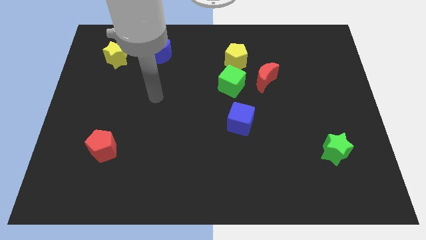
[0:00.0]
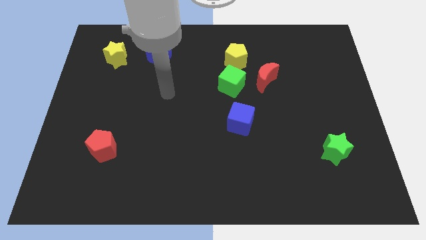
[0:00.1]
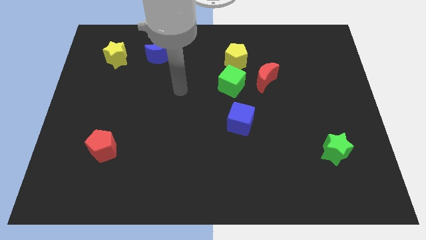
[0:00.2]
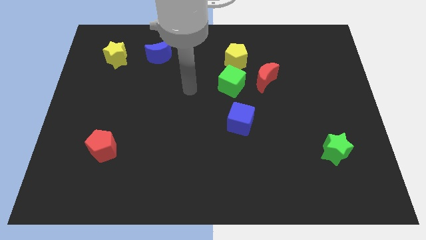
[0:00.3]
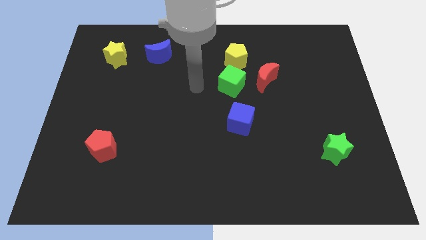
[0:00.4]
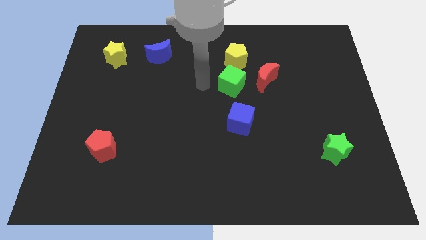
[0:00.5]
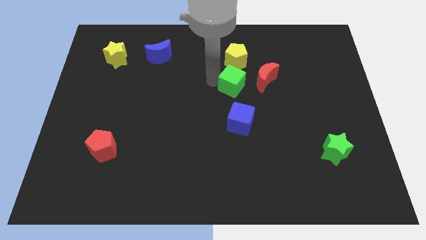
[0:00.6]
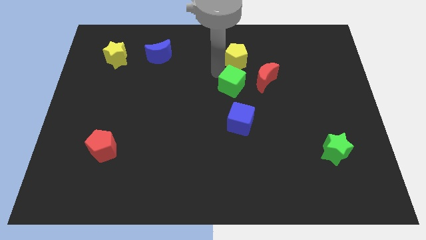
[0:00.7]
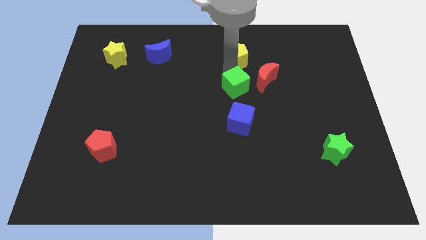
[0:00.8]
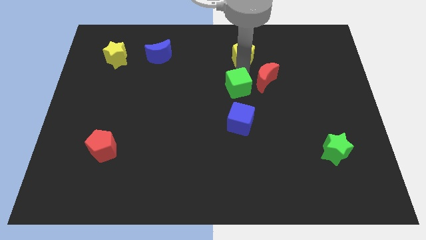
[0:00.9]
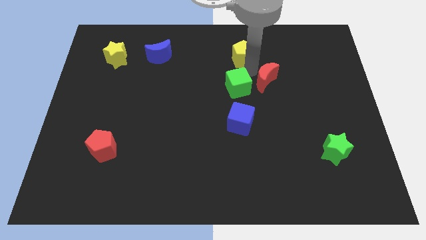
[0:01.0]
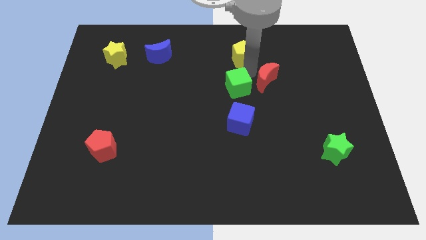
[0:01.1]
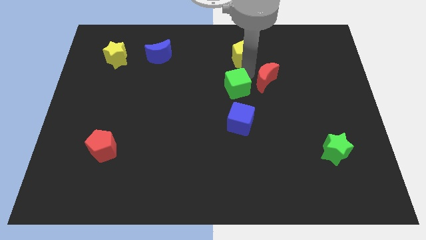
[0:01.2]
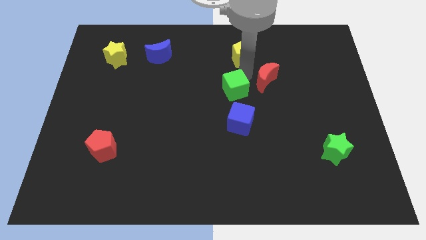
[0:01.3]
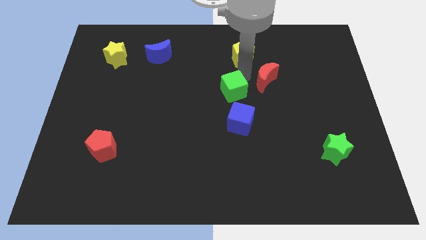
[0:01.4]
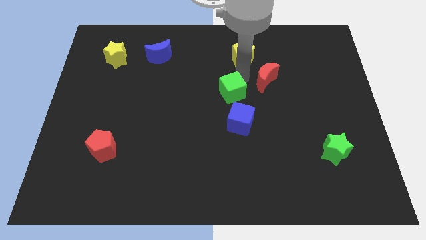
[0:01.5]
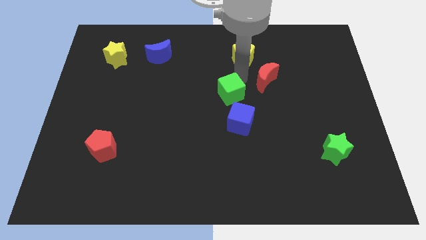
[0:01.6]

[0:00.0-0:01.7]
separate the green cube from the red moon and yellow pentagon

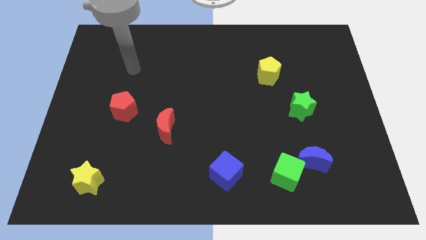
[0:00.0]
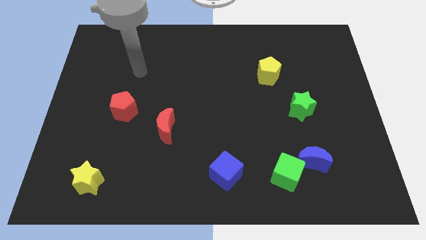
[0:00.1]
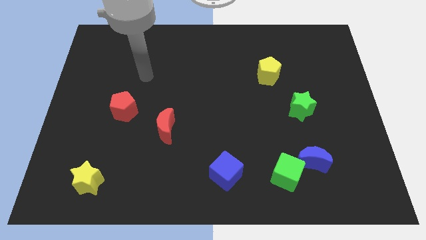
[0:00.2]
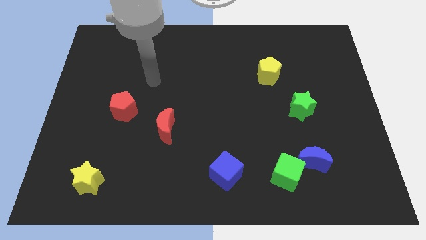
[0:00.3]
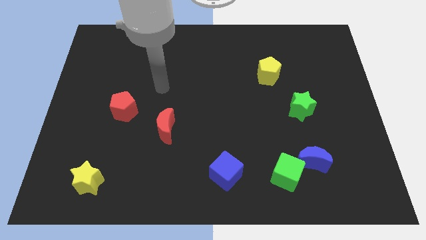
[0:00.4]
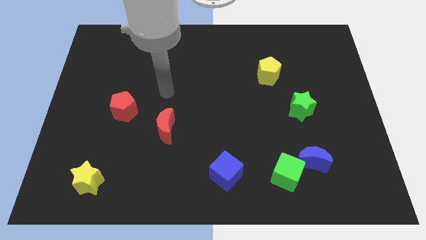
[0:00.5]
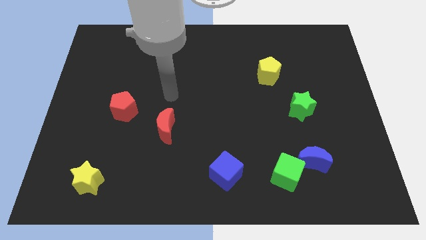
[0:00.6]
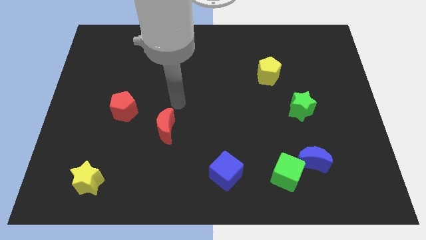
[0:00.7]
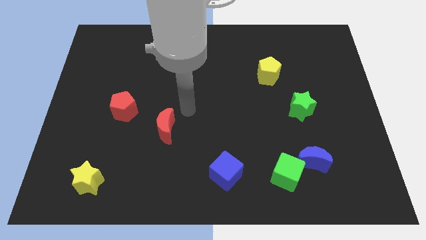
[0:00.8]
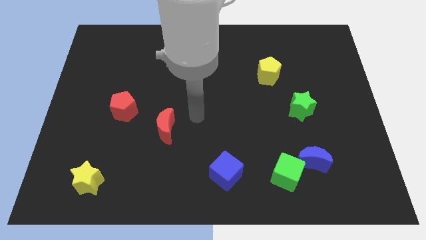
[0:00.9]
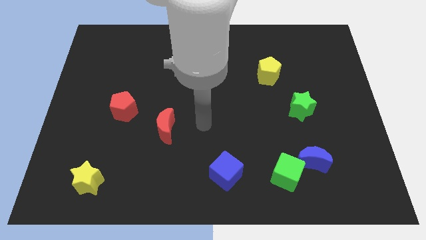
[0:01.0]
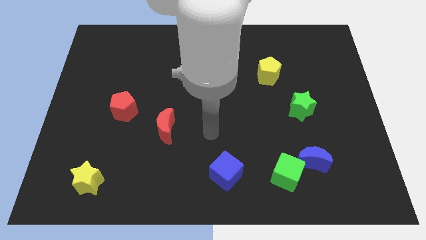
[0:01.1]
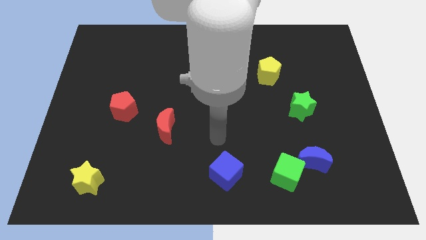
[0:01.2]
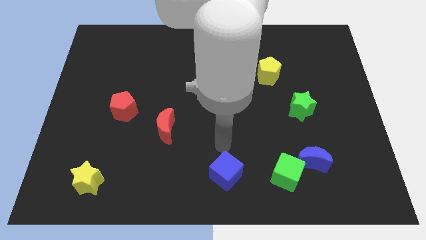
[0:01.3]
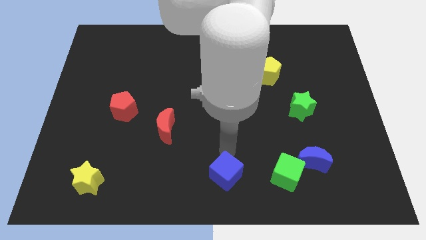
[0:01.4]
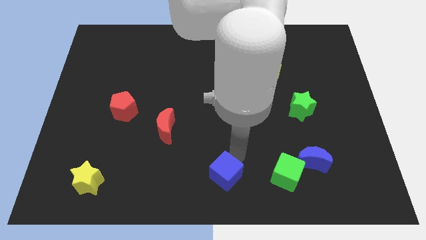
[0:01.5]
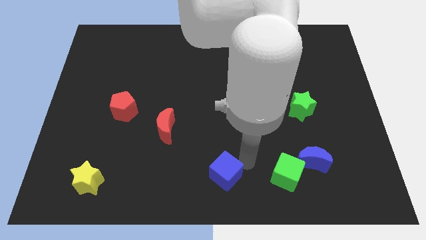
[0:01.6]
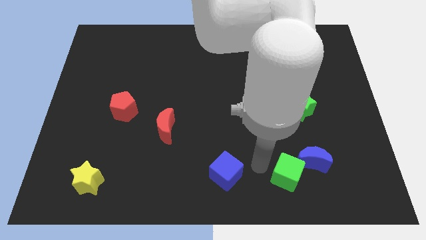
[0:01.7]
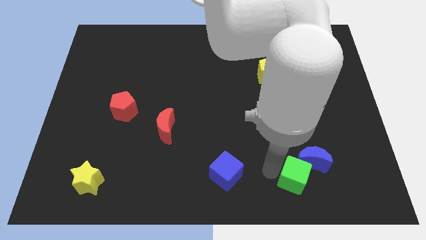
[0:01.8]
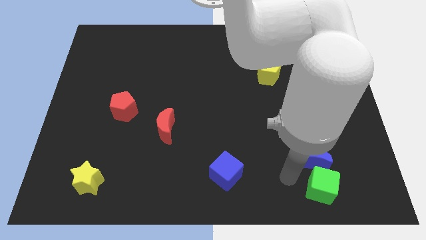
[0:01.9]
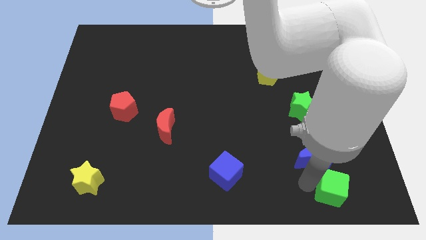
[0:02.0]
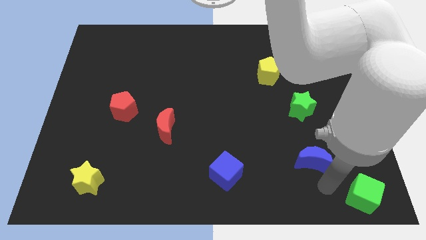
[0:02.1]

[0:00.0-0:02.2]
move the blue moon away from the green cube

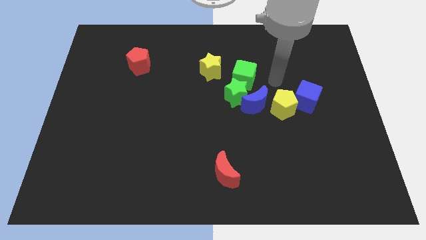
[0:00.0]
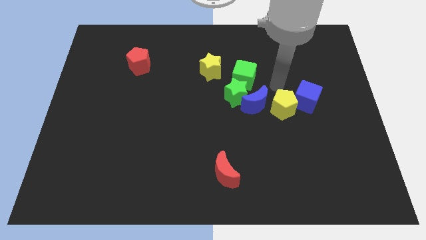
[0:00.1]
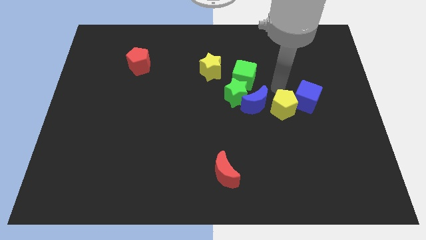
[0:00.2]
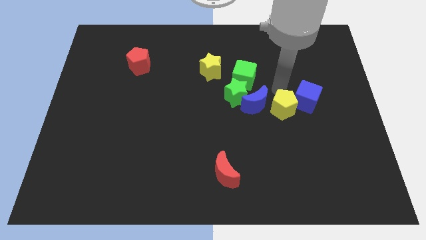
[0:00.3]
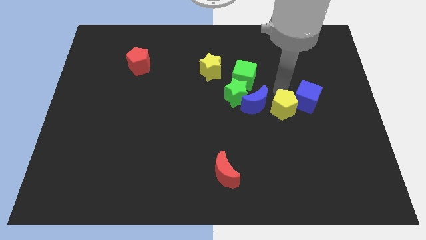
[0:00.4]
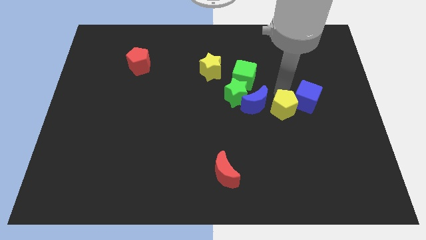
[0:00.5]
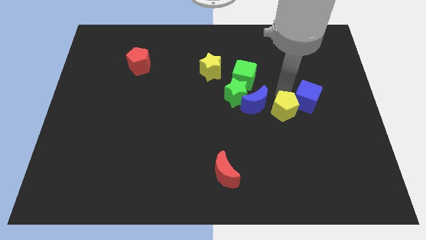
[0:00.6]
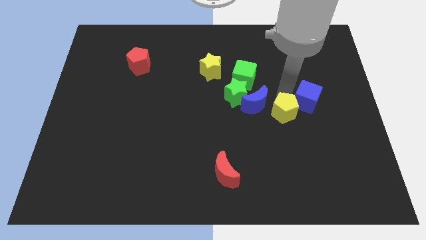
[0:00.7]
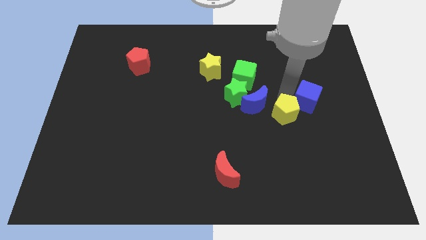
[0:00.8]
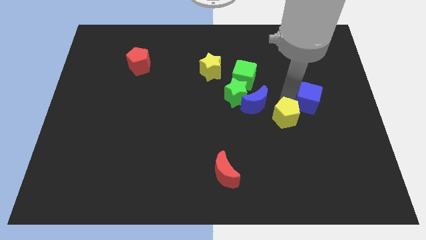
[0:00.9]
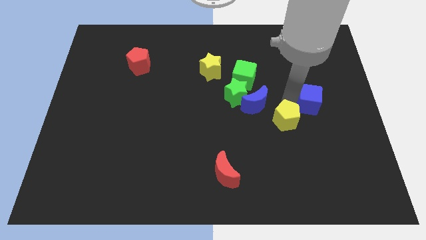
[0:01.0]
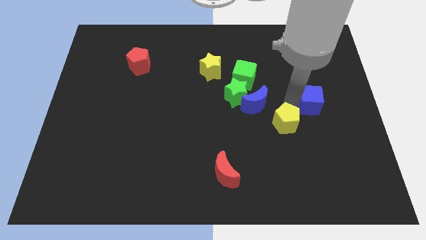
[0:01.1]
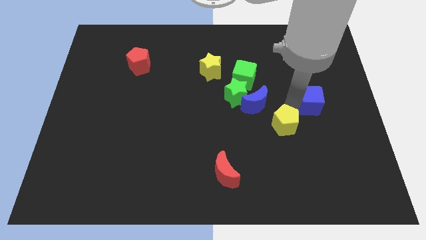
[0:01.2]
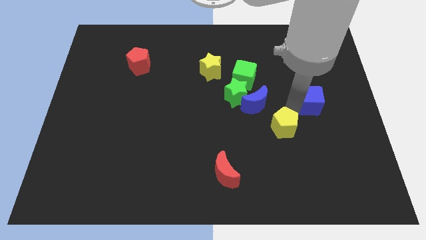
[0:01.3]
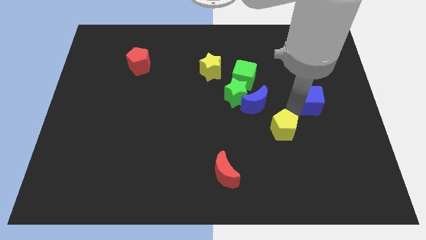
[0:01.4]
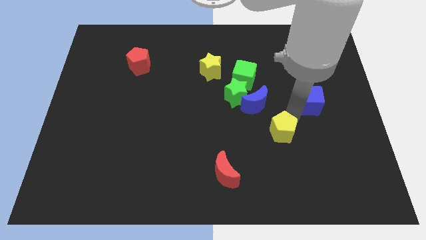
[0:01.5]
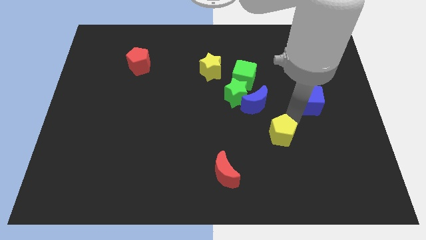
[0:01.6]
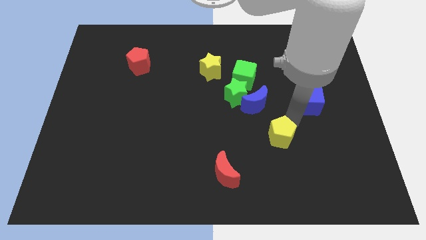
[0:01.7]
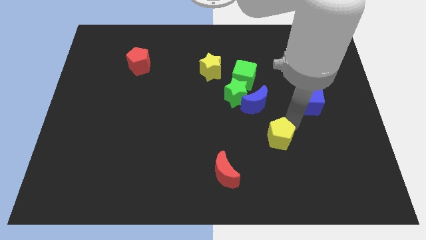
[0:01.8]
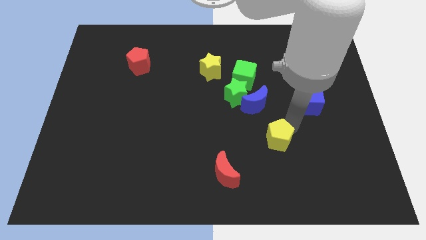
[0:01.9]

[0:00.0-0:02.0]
separate the yellow pentagon from the blue moon and blue cube

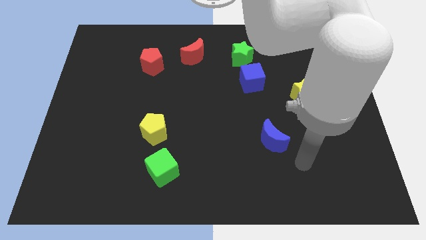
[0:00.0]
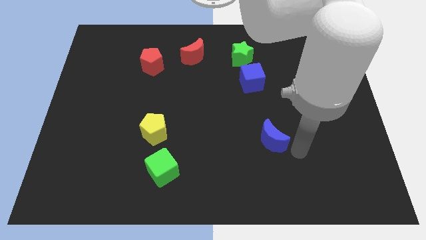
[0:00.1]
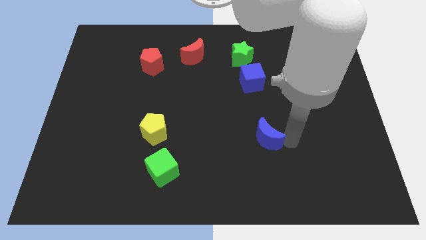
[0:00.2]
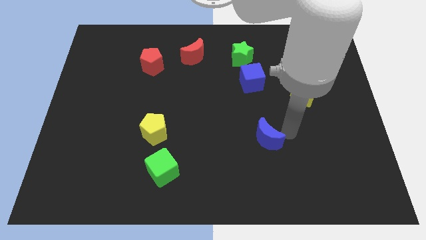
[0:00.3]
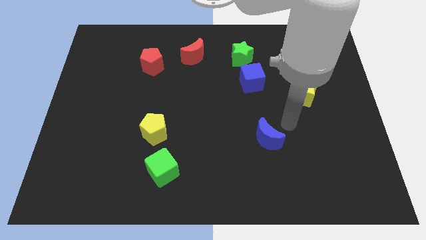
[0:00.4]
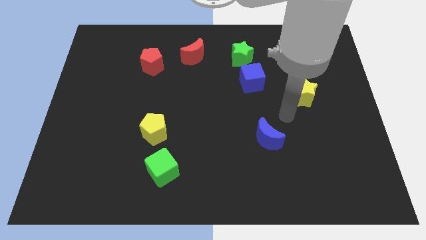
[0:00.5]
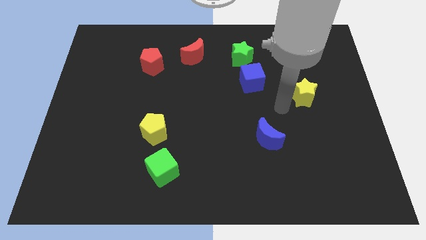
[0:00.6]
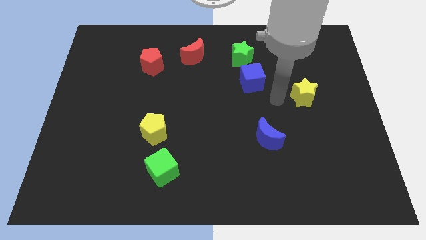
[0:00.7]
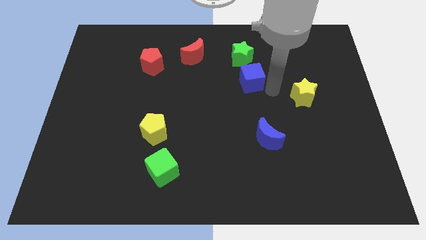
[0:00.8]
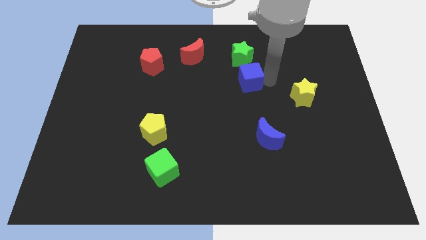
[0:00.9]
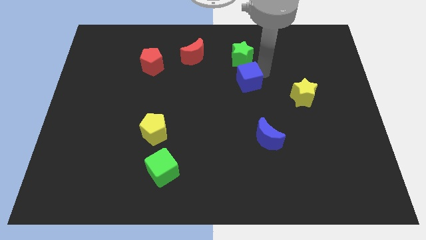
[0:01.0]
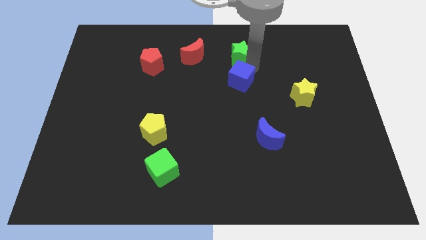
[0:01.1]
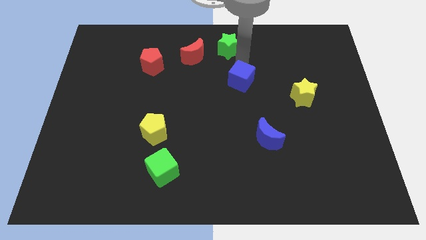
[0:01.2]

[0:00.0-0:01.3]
pull the blue cube apart from the green star

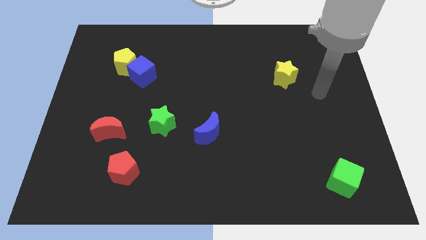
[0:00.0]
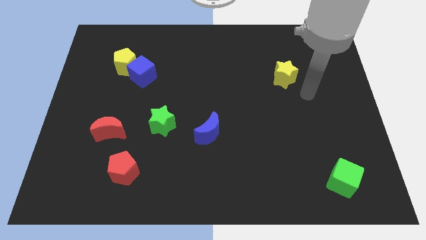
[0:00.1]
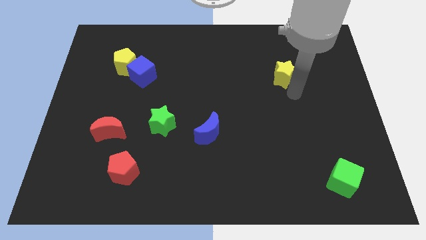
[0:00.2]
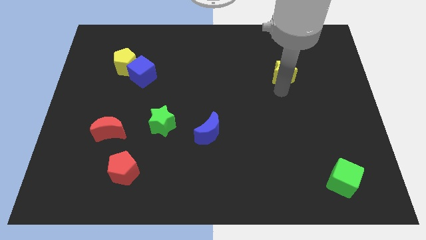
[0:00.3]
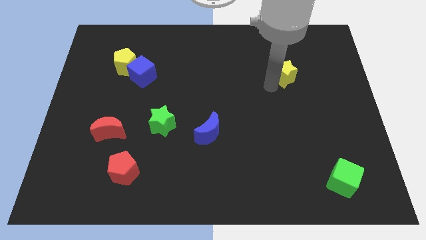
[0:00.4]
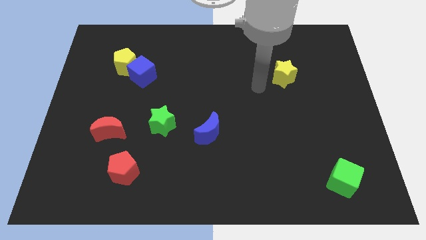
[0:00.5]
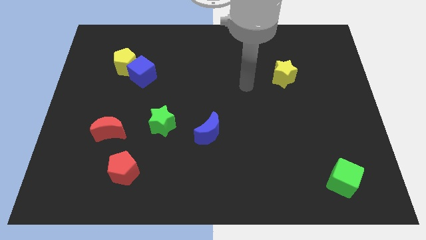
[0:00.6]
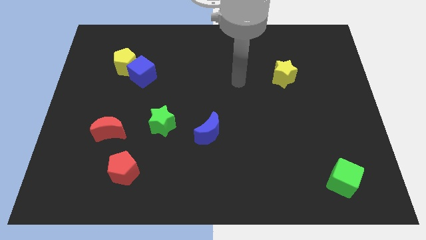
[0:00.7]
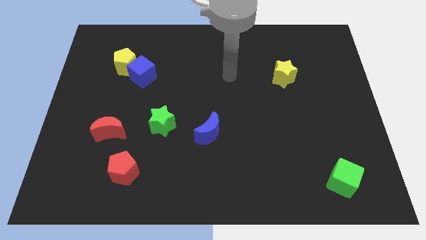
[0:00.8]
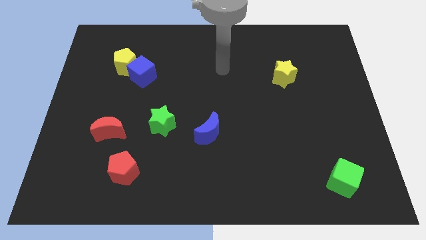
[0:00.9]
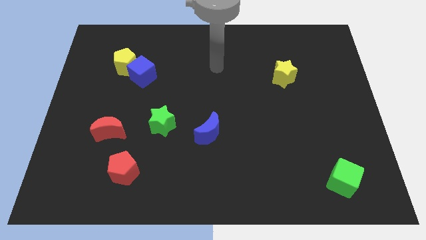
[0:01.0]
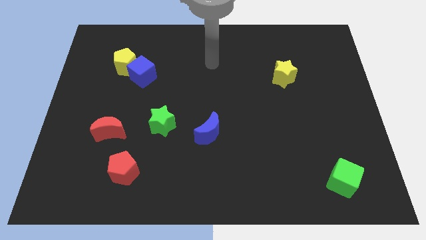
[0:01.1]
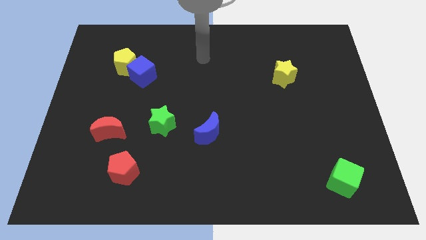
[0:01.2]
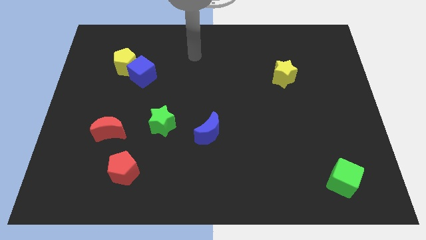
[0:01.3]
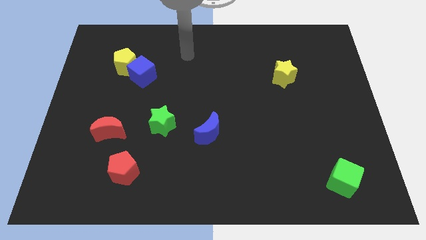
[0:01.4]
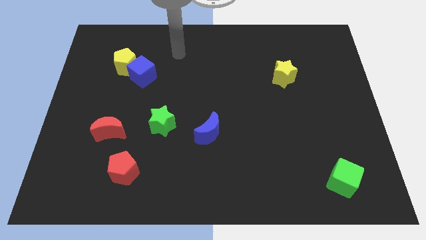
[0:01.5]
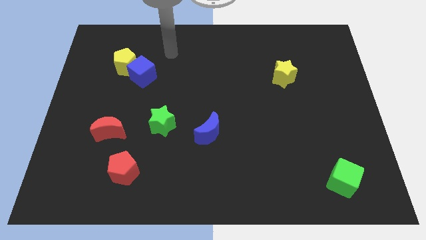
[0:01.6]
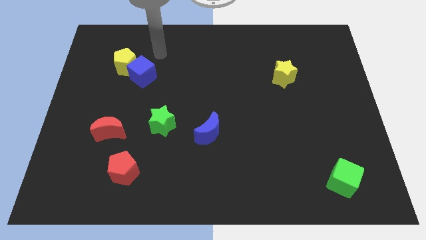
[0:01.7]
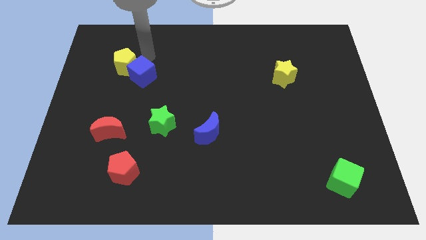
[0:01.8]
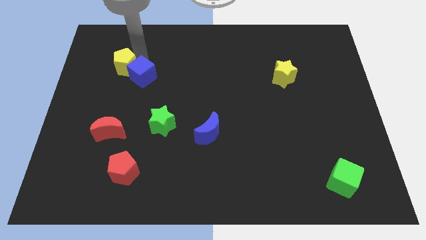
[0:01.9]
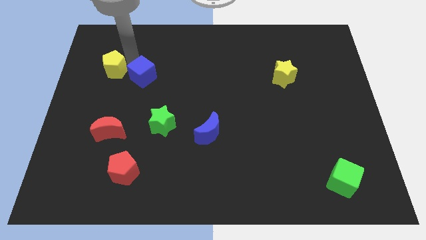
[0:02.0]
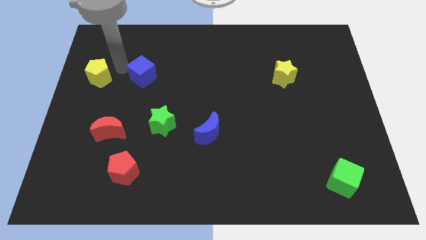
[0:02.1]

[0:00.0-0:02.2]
separate the blue cube from the yellow pentagon
